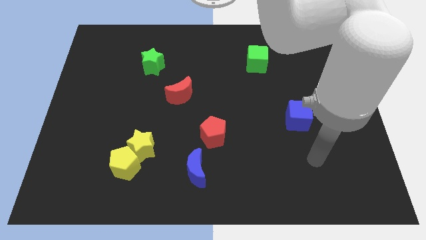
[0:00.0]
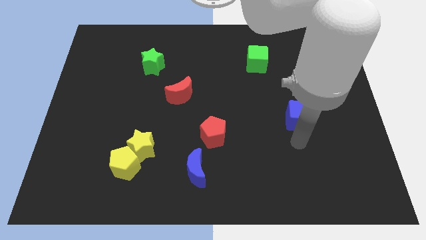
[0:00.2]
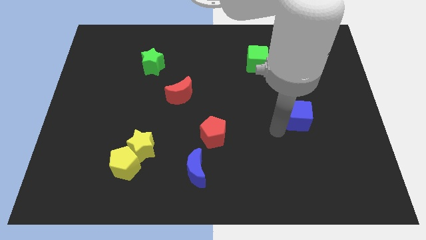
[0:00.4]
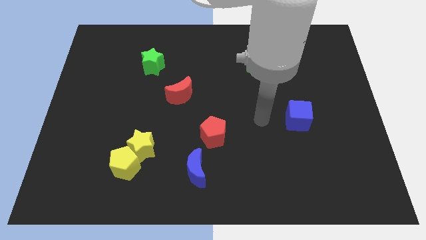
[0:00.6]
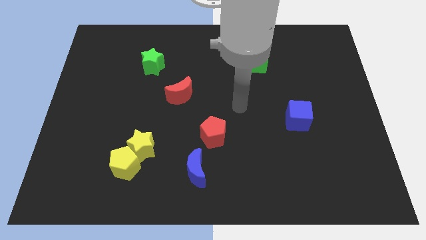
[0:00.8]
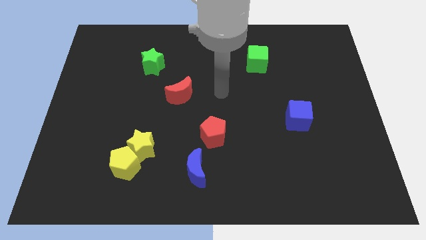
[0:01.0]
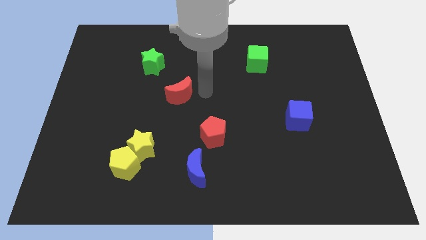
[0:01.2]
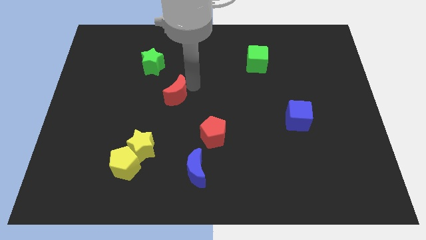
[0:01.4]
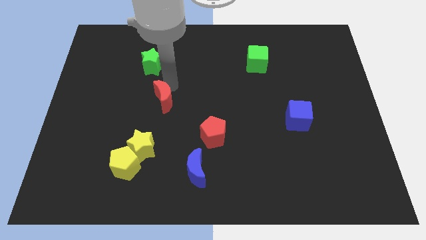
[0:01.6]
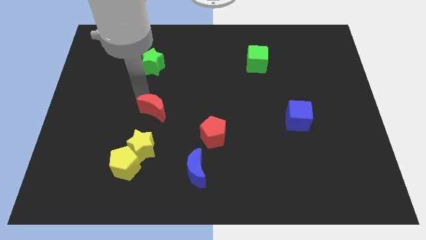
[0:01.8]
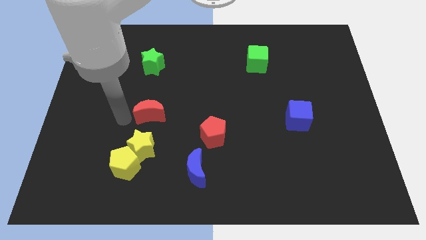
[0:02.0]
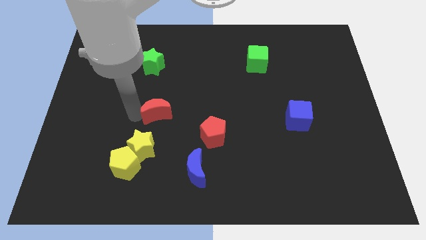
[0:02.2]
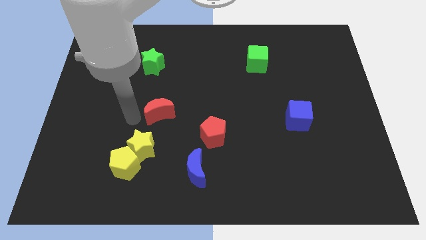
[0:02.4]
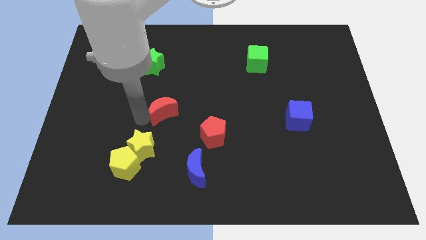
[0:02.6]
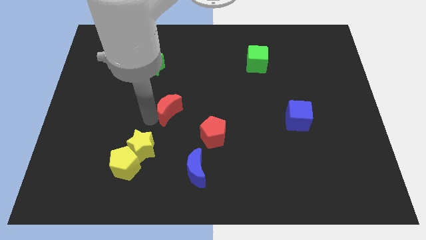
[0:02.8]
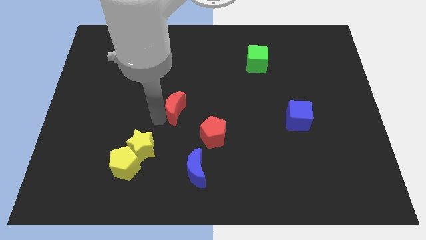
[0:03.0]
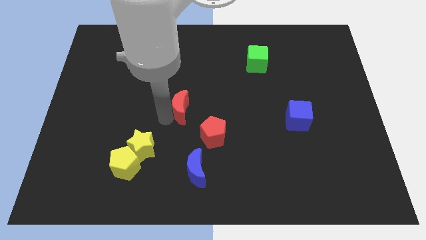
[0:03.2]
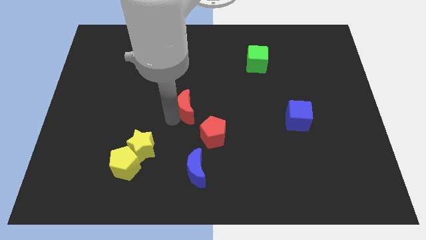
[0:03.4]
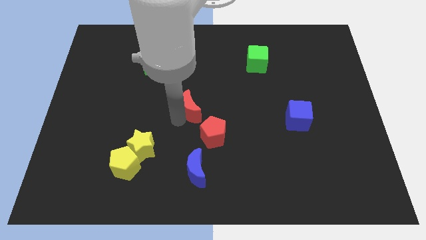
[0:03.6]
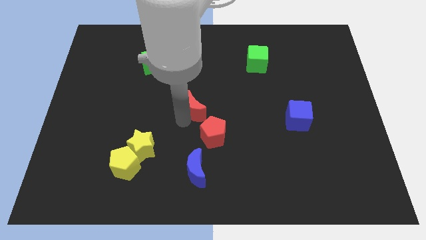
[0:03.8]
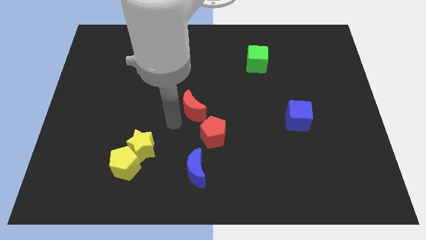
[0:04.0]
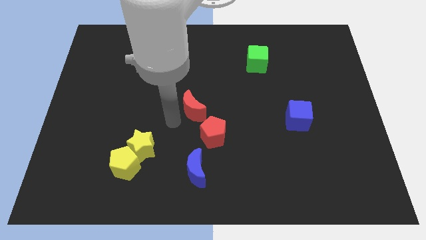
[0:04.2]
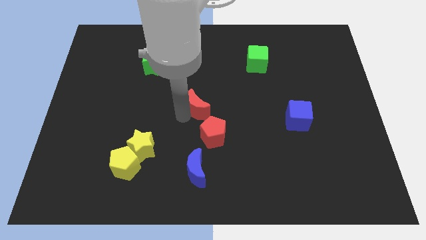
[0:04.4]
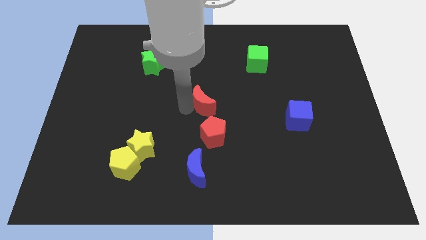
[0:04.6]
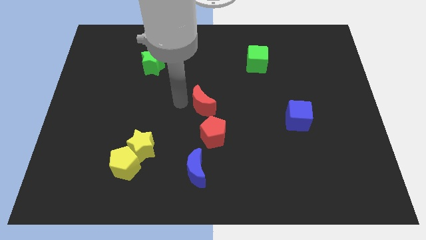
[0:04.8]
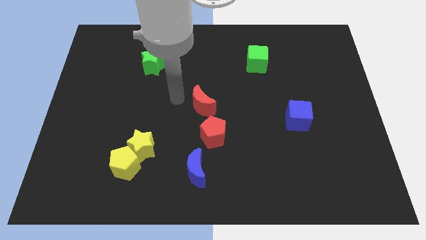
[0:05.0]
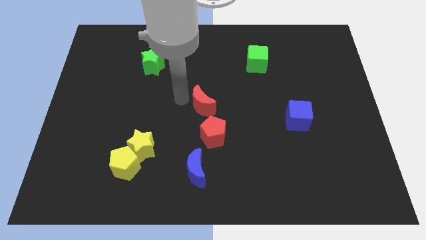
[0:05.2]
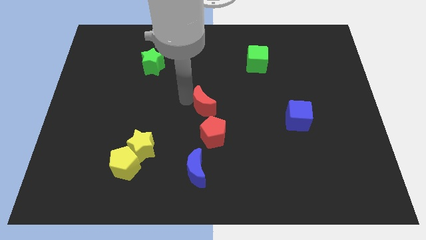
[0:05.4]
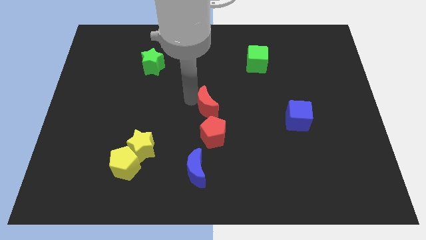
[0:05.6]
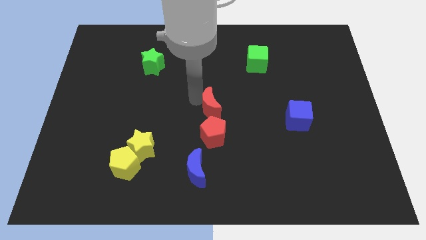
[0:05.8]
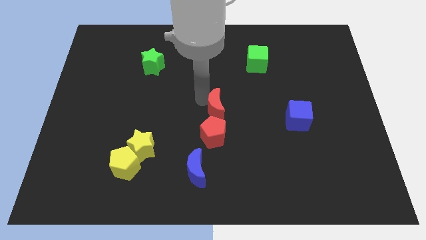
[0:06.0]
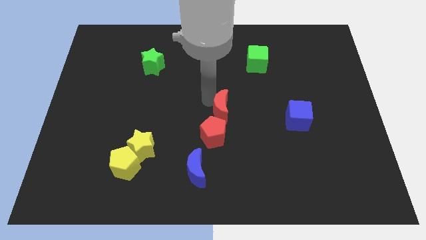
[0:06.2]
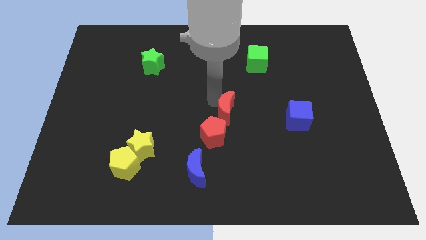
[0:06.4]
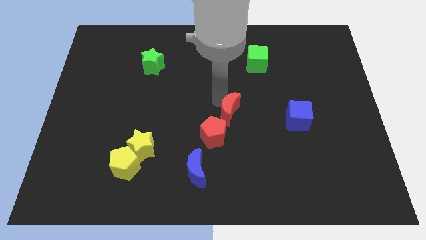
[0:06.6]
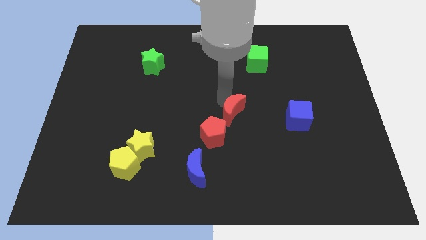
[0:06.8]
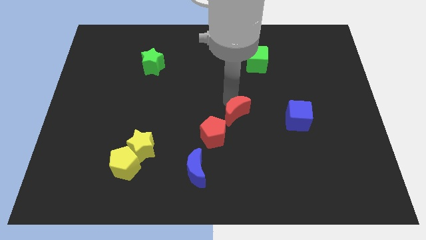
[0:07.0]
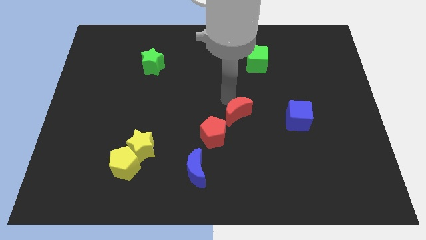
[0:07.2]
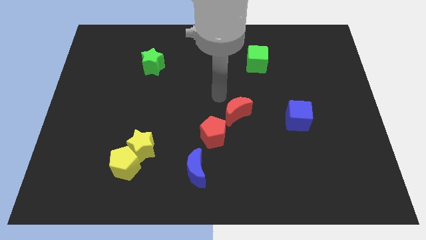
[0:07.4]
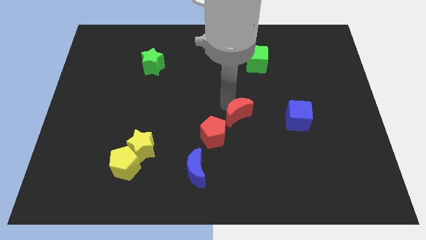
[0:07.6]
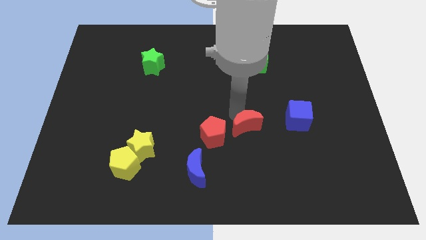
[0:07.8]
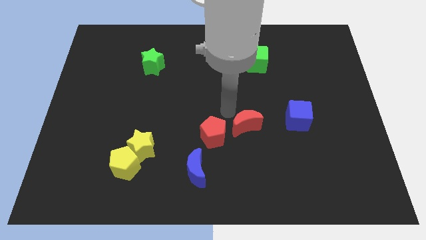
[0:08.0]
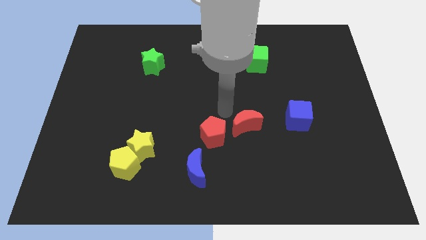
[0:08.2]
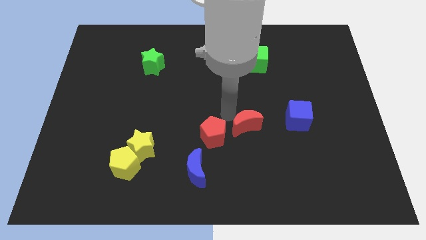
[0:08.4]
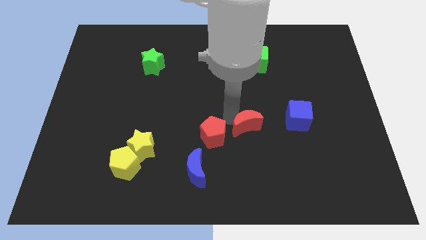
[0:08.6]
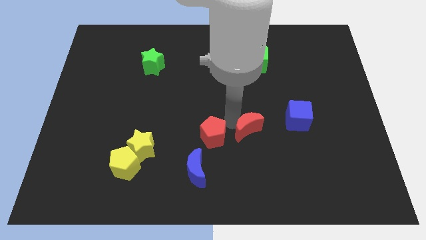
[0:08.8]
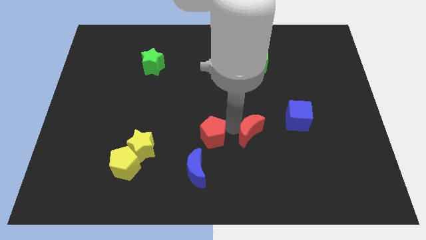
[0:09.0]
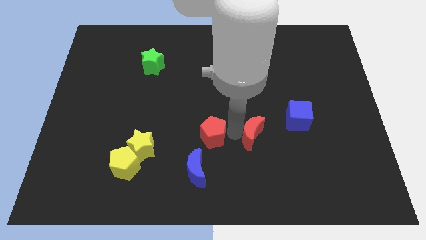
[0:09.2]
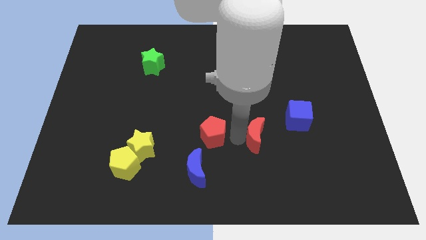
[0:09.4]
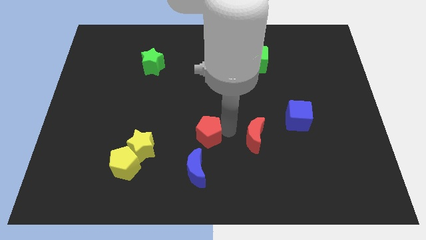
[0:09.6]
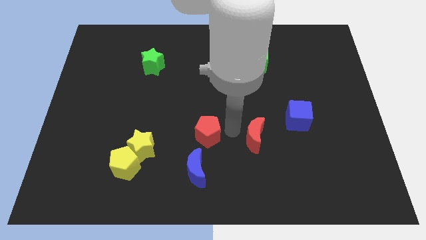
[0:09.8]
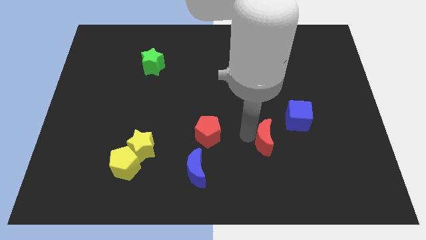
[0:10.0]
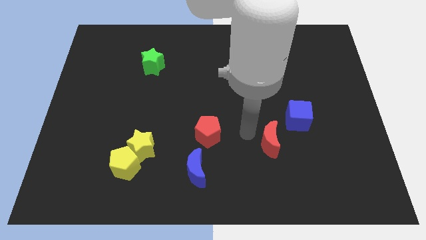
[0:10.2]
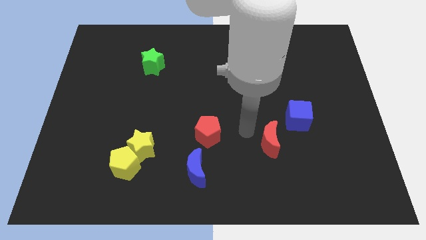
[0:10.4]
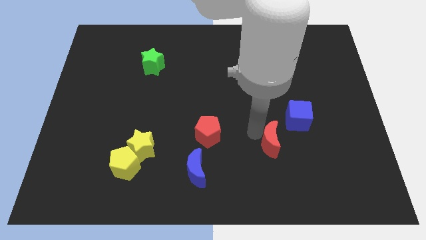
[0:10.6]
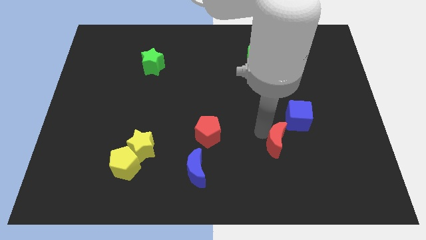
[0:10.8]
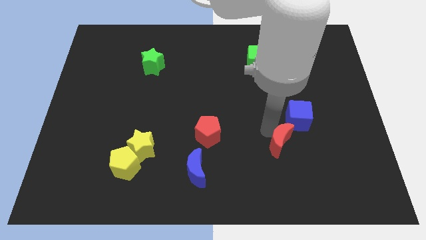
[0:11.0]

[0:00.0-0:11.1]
slide the red moon below the blue cube

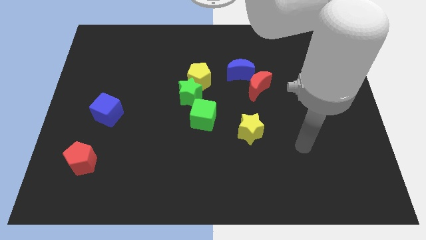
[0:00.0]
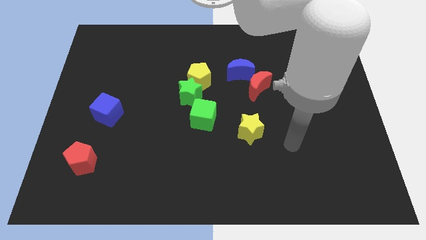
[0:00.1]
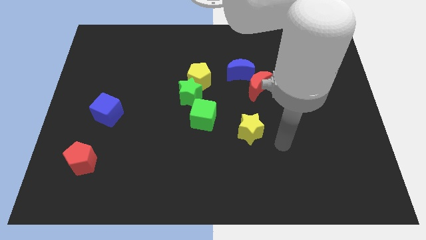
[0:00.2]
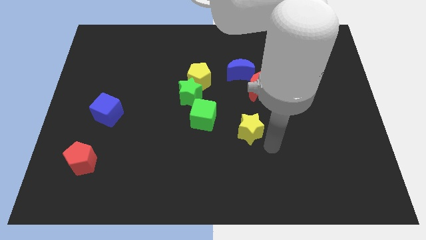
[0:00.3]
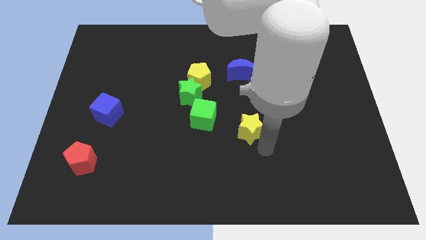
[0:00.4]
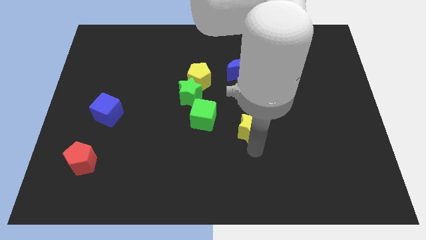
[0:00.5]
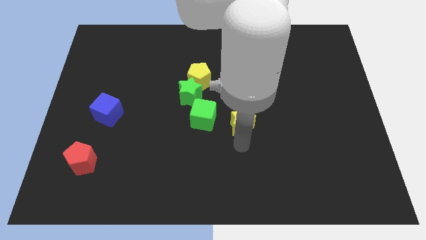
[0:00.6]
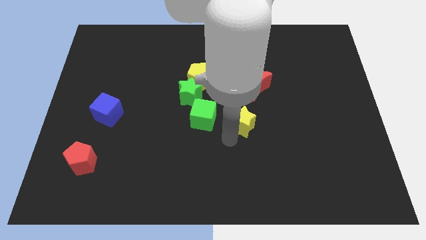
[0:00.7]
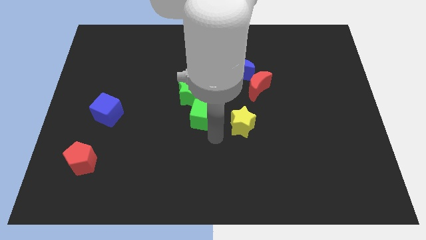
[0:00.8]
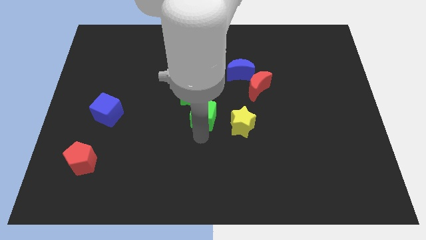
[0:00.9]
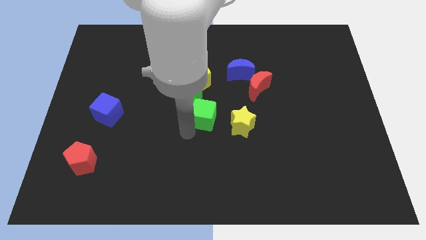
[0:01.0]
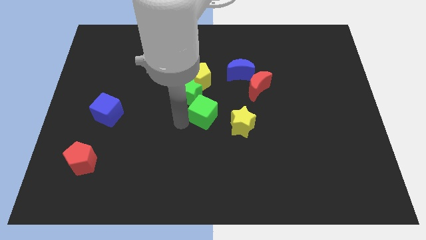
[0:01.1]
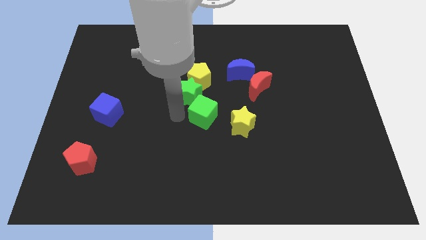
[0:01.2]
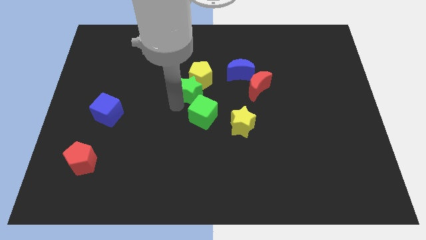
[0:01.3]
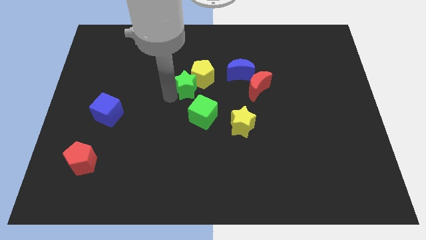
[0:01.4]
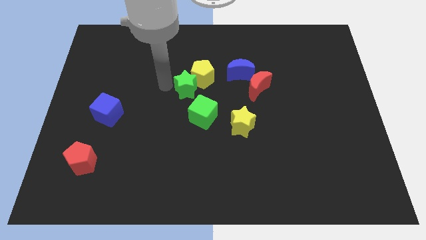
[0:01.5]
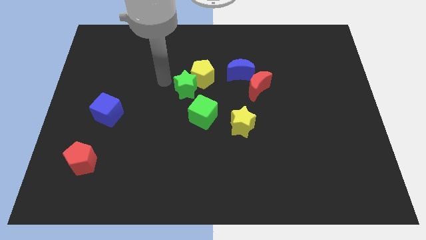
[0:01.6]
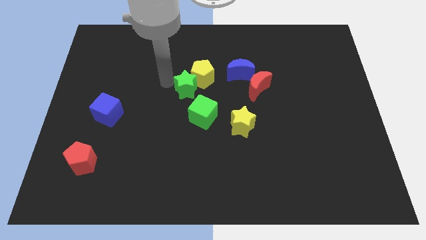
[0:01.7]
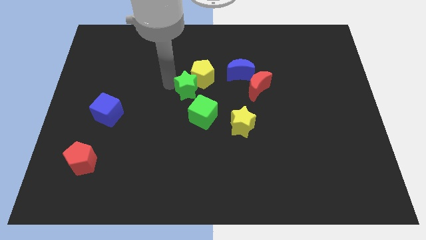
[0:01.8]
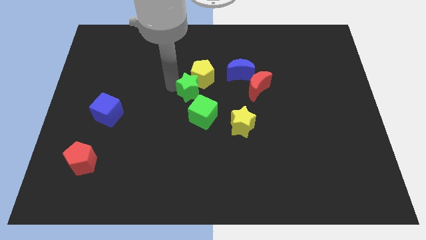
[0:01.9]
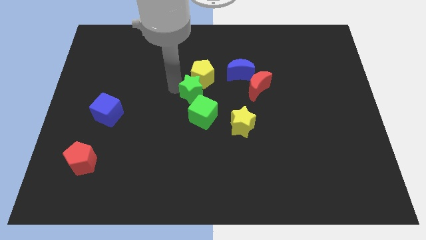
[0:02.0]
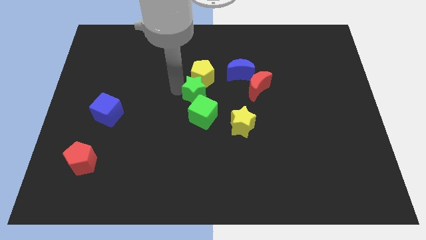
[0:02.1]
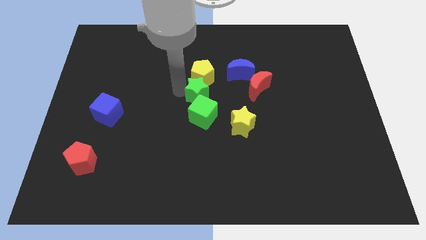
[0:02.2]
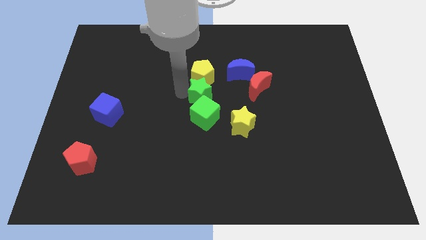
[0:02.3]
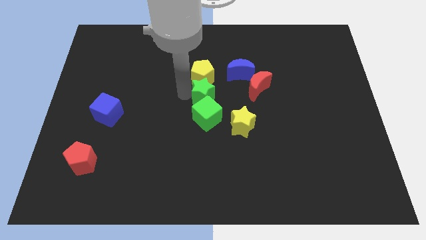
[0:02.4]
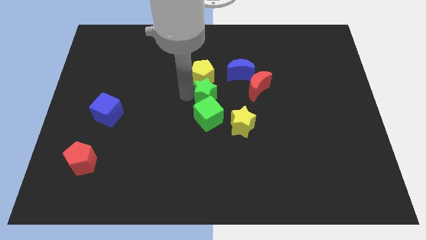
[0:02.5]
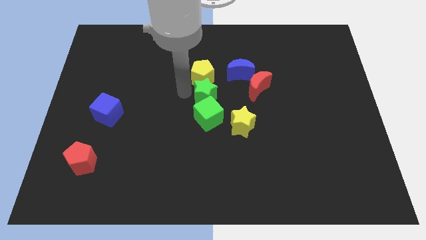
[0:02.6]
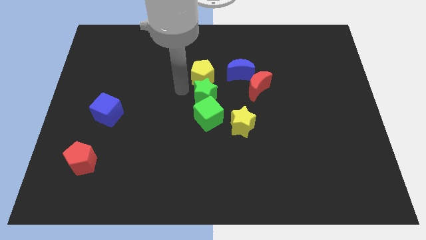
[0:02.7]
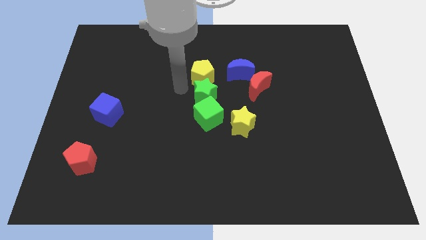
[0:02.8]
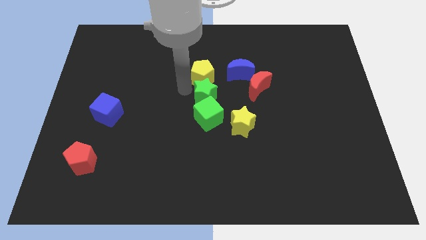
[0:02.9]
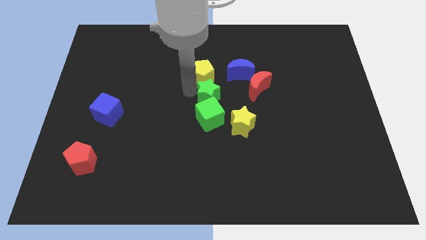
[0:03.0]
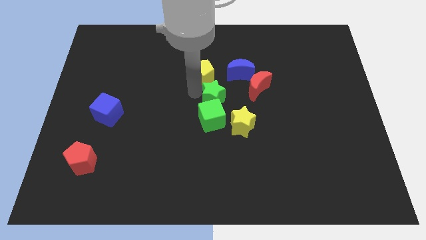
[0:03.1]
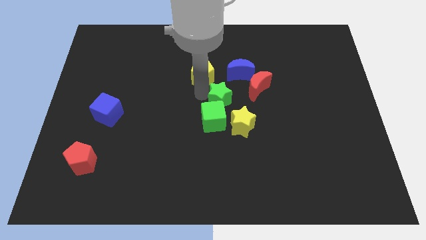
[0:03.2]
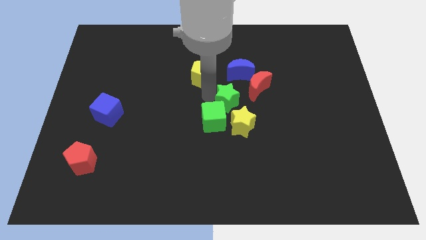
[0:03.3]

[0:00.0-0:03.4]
slide the green star below the blue moon
